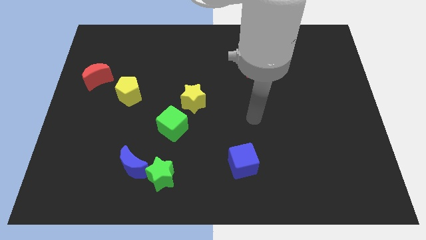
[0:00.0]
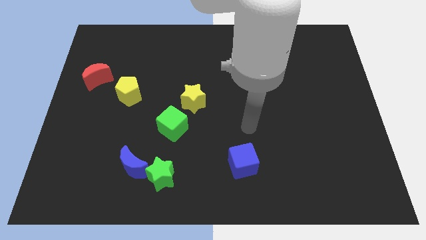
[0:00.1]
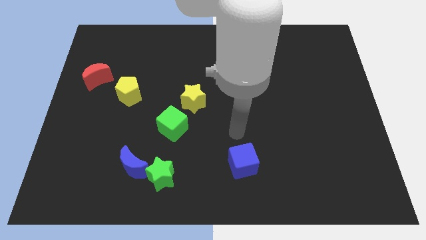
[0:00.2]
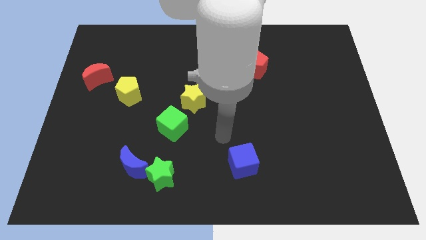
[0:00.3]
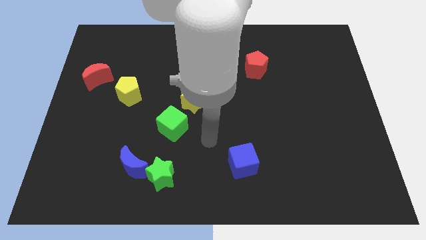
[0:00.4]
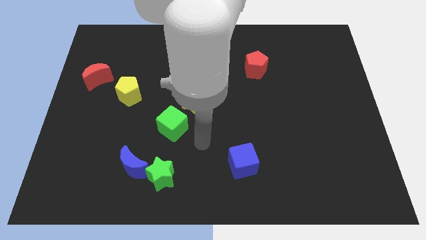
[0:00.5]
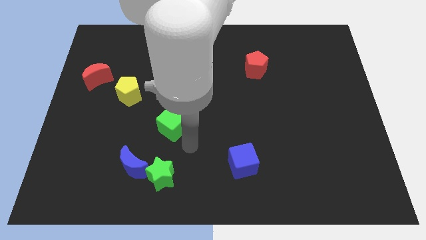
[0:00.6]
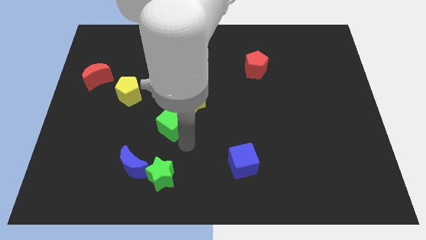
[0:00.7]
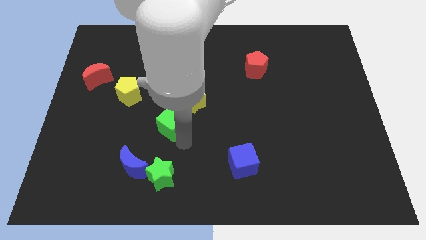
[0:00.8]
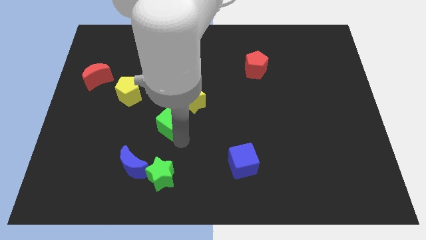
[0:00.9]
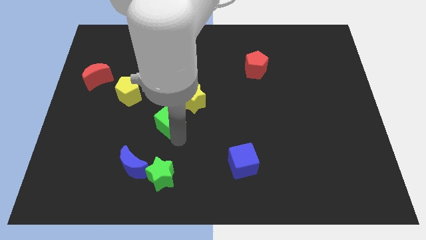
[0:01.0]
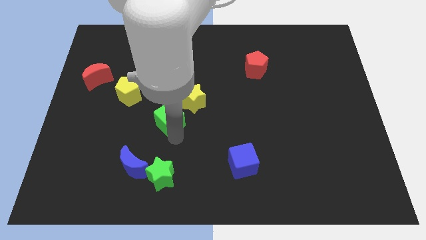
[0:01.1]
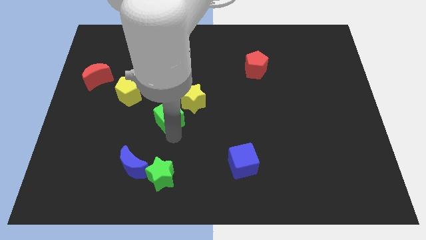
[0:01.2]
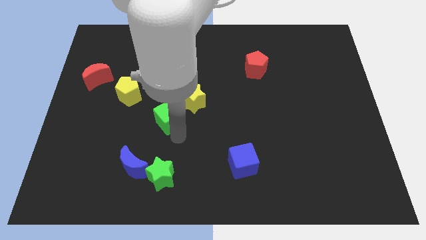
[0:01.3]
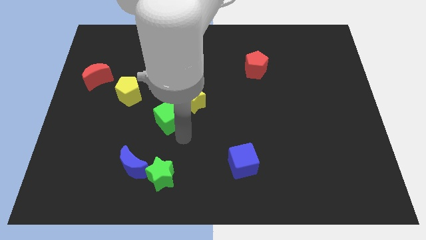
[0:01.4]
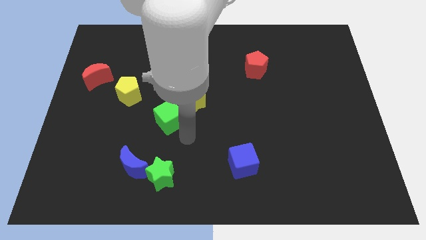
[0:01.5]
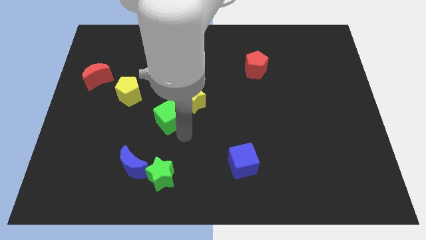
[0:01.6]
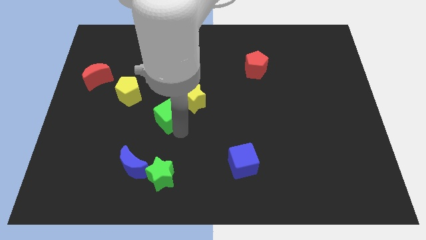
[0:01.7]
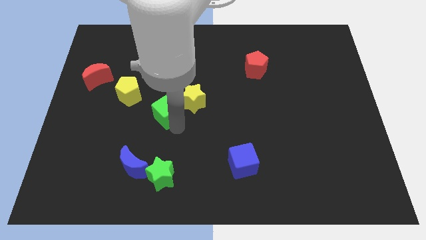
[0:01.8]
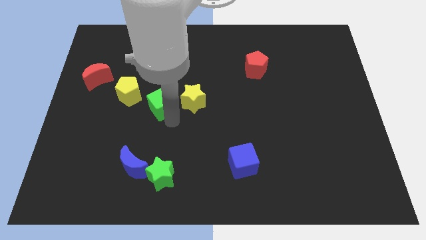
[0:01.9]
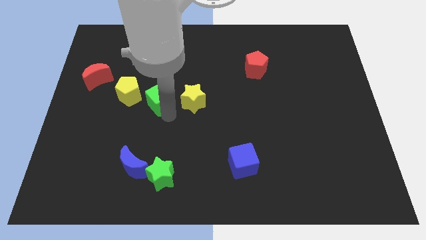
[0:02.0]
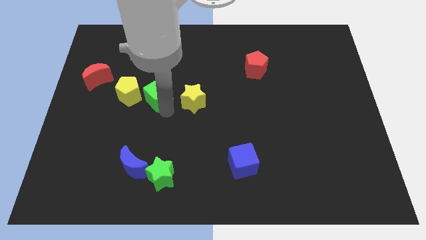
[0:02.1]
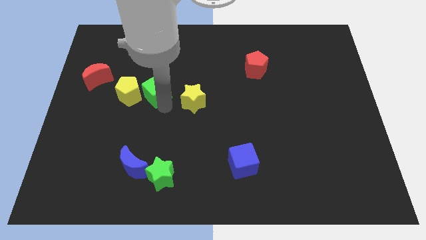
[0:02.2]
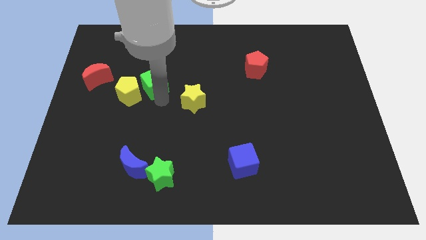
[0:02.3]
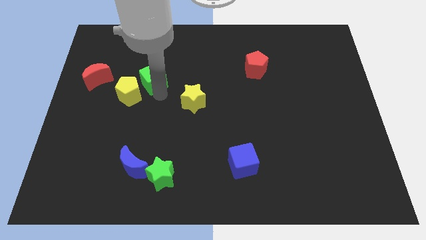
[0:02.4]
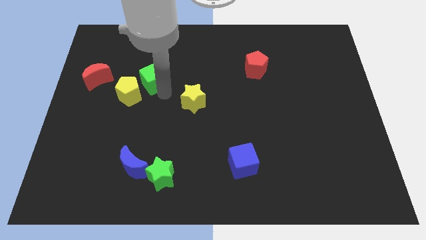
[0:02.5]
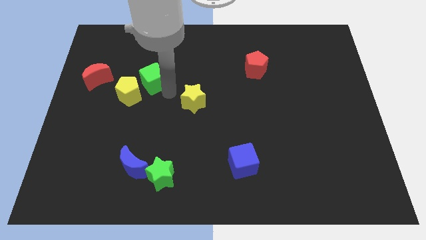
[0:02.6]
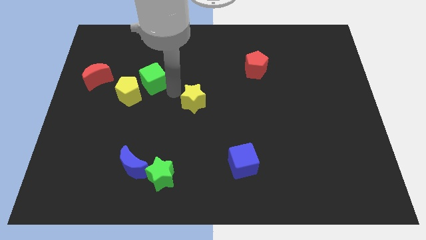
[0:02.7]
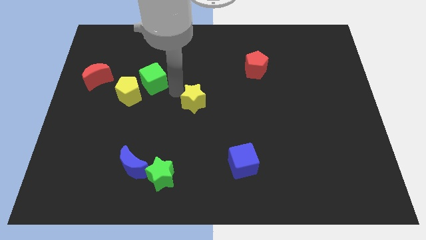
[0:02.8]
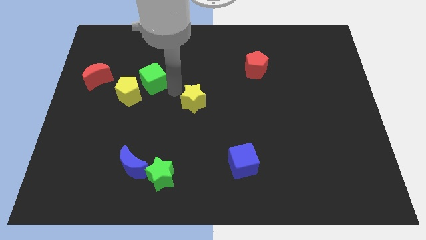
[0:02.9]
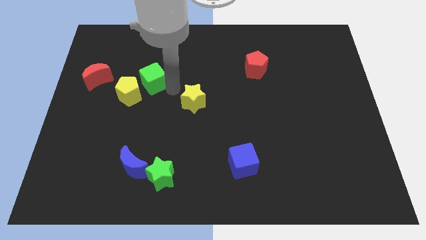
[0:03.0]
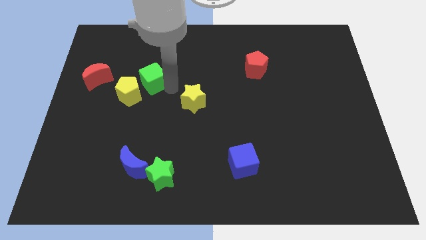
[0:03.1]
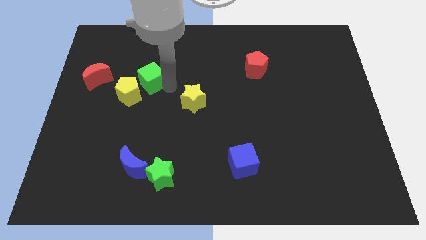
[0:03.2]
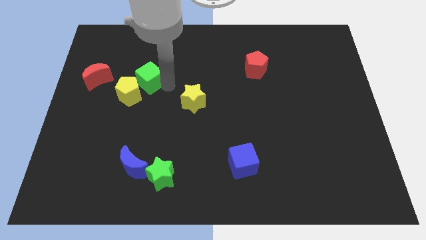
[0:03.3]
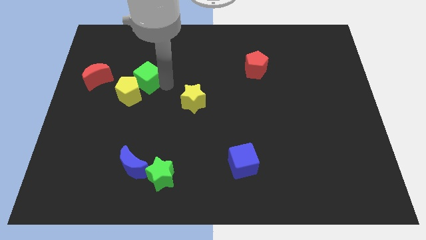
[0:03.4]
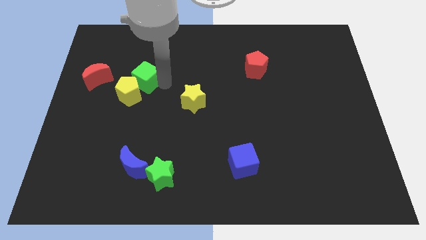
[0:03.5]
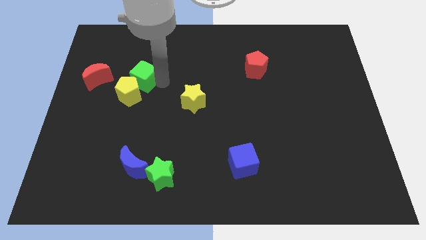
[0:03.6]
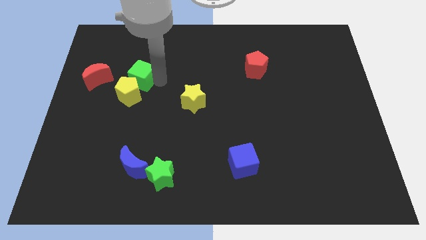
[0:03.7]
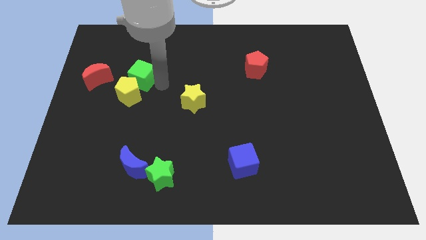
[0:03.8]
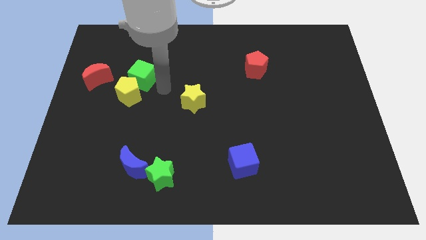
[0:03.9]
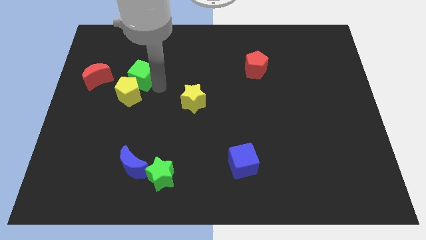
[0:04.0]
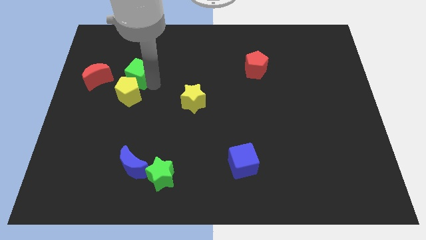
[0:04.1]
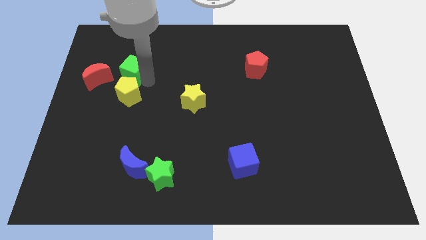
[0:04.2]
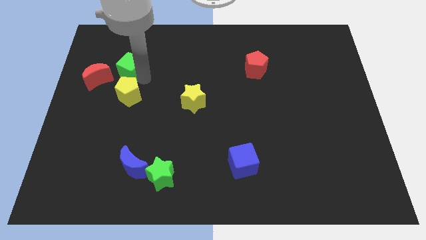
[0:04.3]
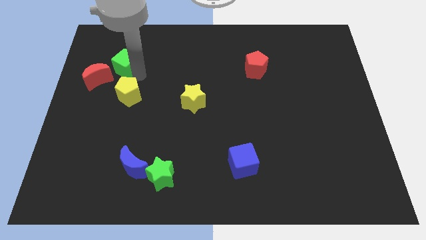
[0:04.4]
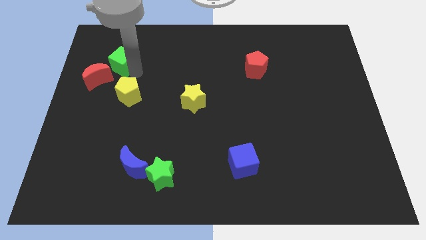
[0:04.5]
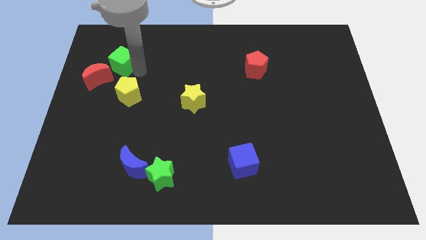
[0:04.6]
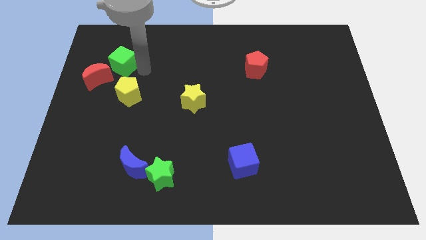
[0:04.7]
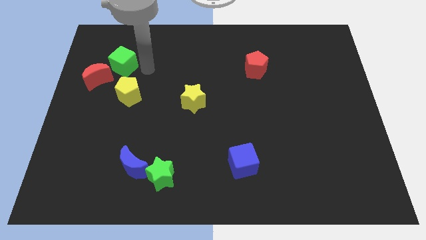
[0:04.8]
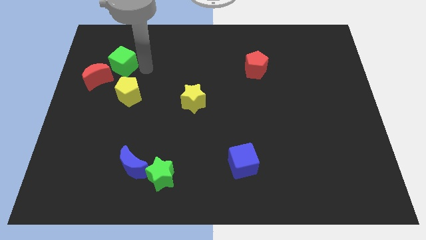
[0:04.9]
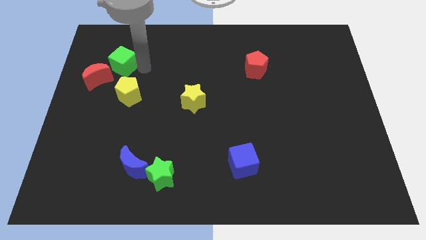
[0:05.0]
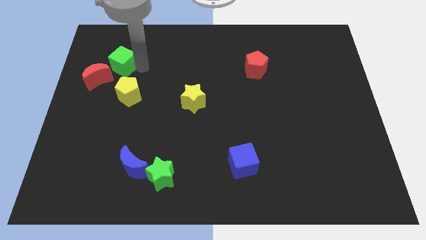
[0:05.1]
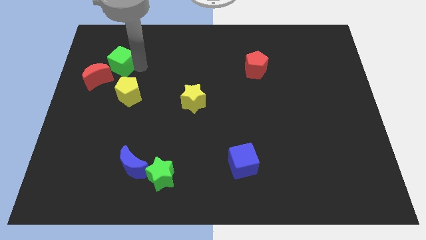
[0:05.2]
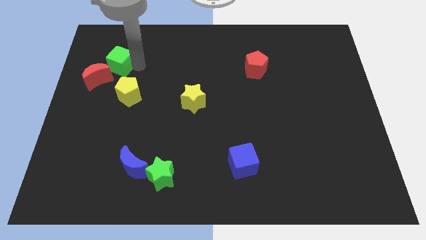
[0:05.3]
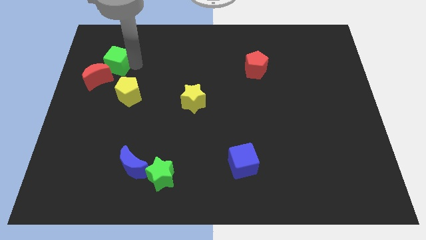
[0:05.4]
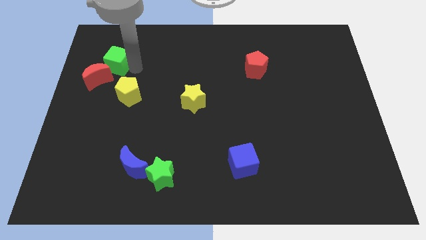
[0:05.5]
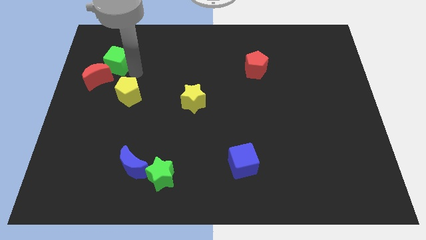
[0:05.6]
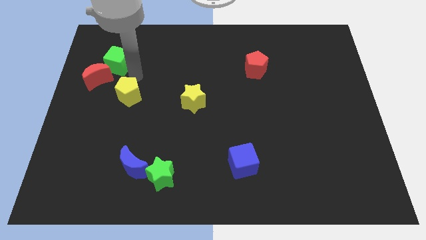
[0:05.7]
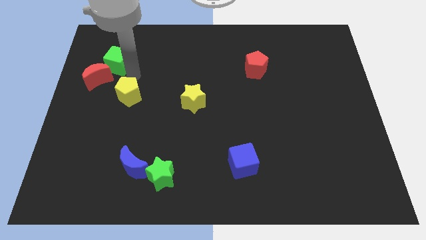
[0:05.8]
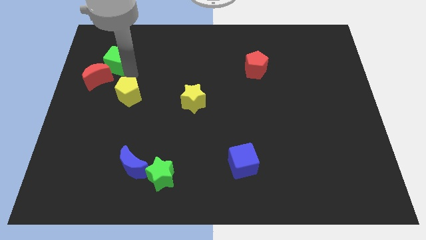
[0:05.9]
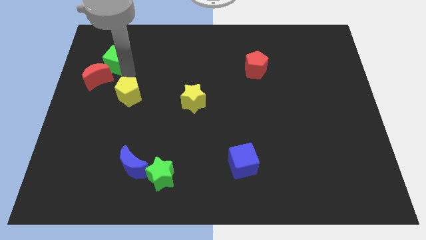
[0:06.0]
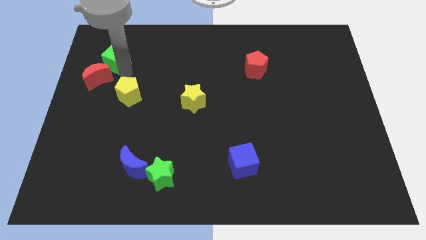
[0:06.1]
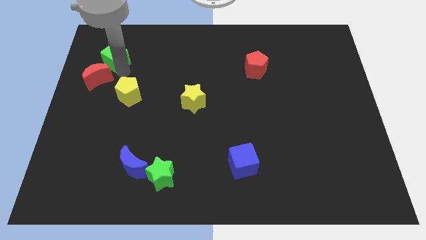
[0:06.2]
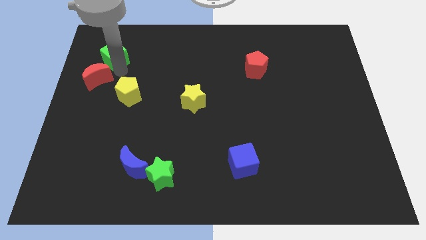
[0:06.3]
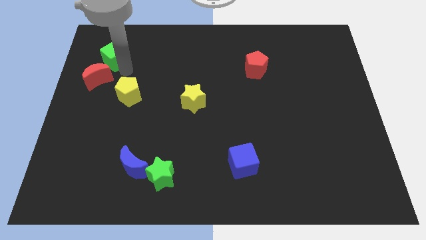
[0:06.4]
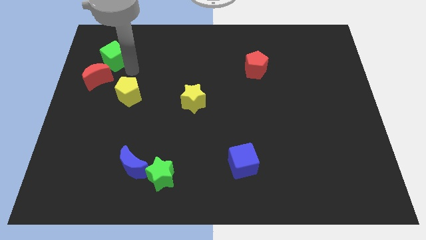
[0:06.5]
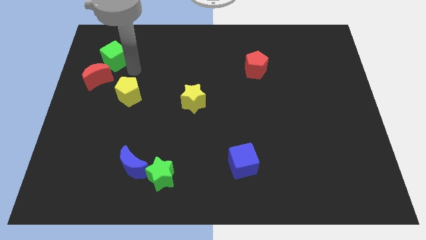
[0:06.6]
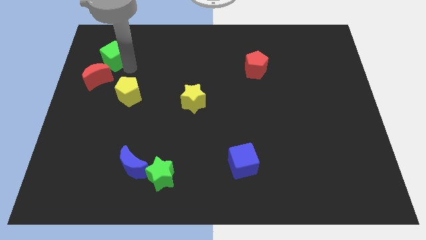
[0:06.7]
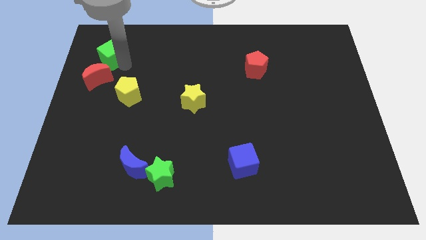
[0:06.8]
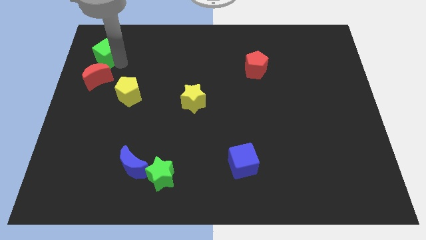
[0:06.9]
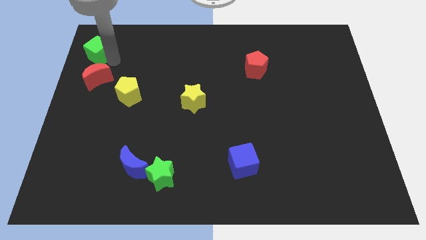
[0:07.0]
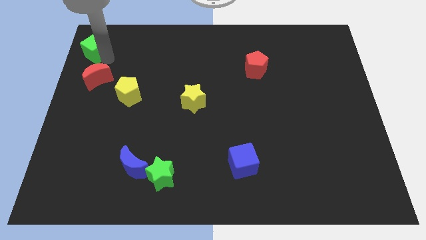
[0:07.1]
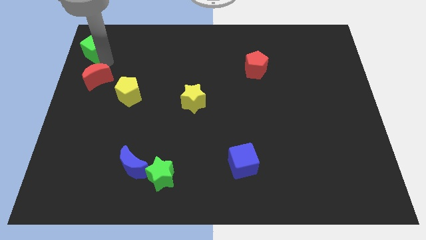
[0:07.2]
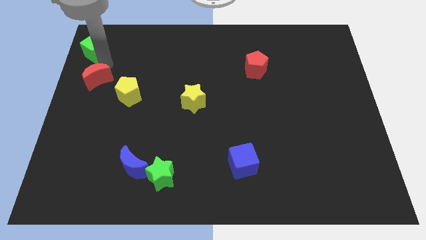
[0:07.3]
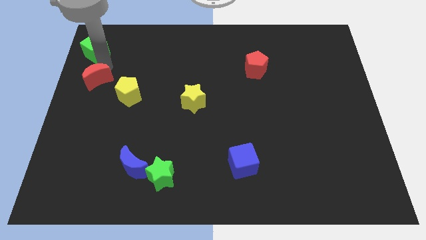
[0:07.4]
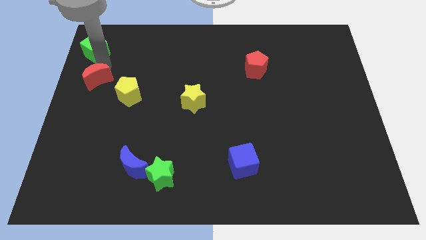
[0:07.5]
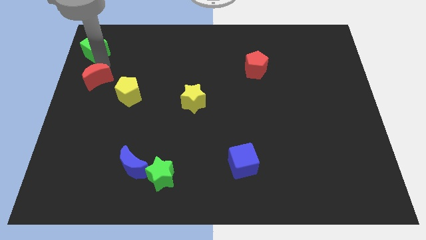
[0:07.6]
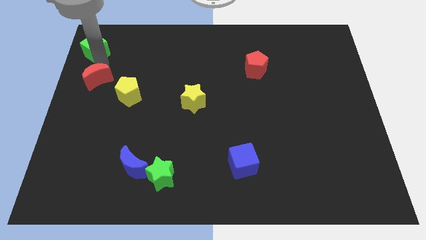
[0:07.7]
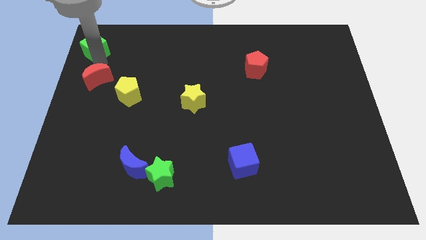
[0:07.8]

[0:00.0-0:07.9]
slide the green cube to the top left corner
